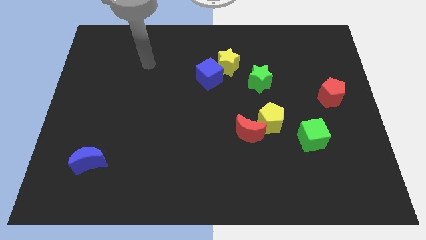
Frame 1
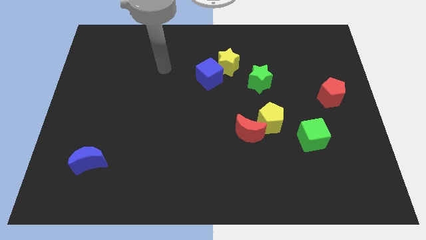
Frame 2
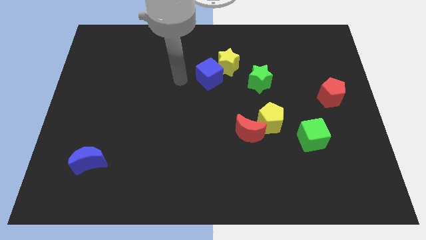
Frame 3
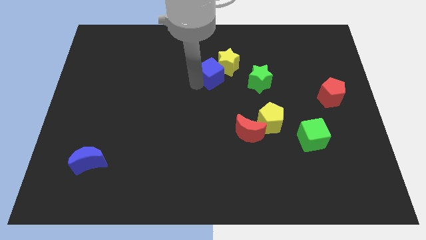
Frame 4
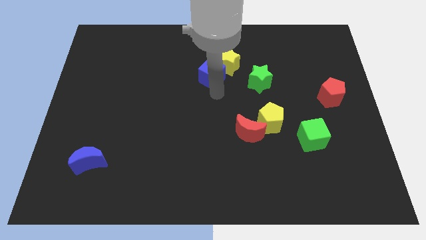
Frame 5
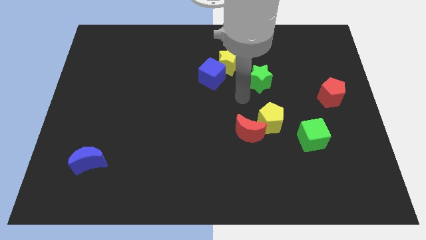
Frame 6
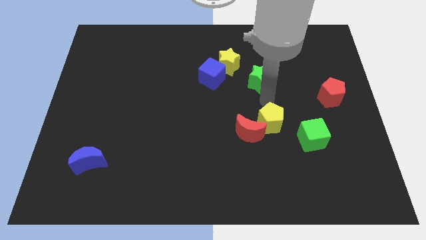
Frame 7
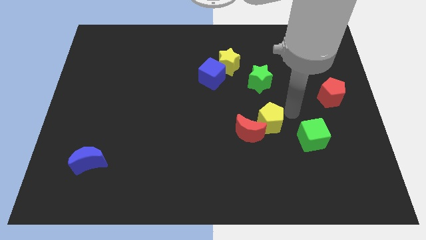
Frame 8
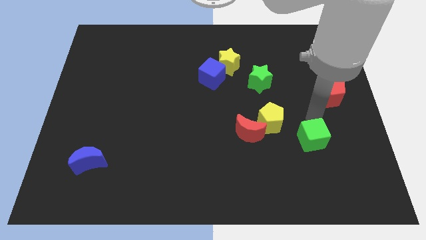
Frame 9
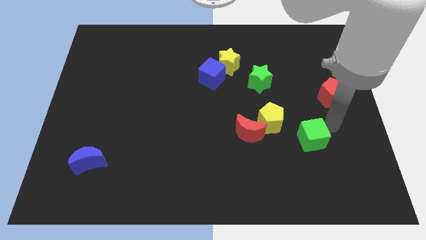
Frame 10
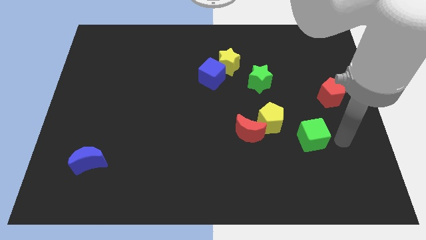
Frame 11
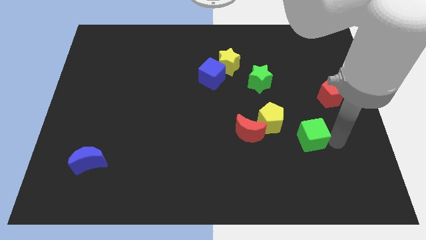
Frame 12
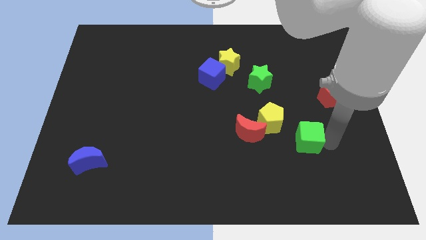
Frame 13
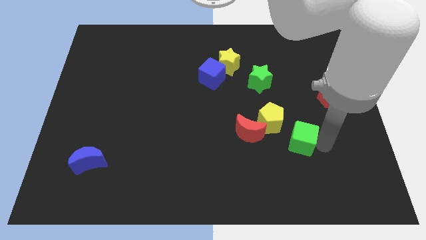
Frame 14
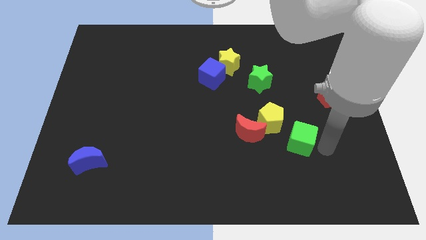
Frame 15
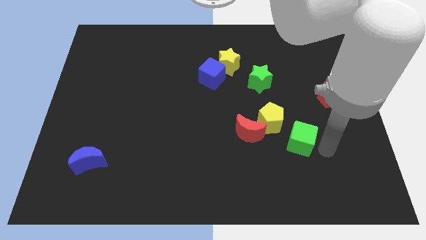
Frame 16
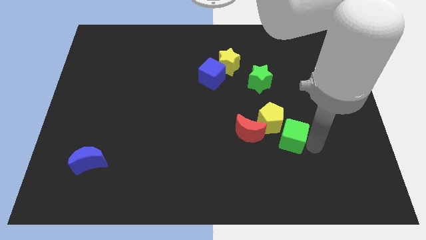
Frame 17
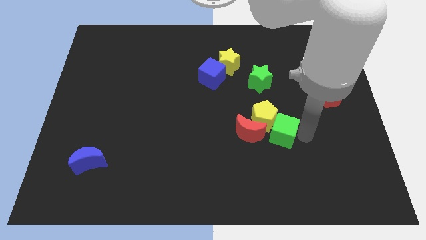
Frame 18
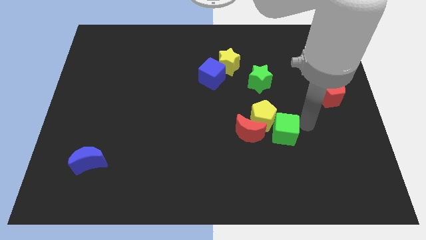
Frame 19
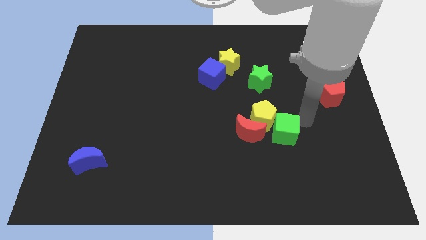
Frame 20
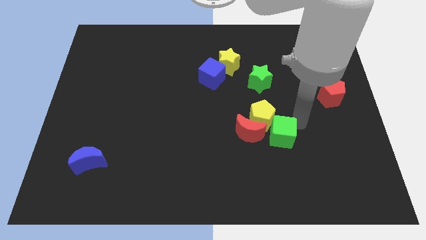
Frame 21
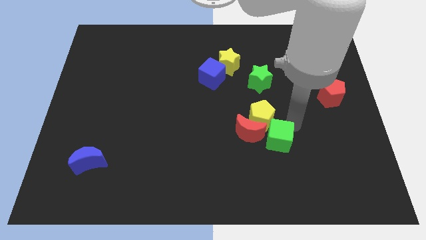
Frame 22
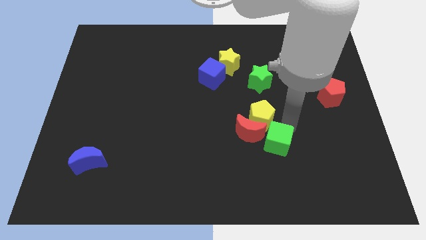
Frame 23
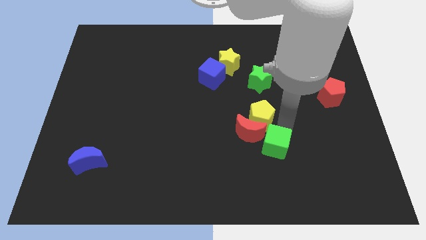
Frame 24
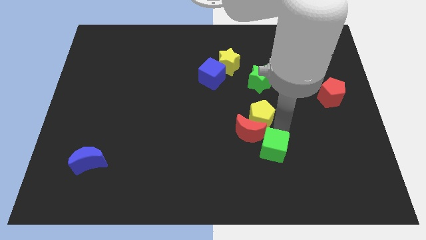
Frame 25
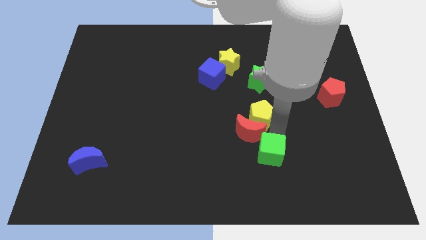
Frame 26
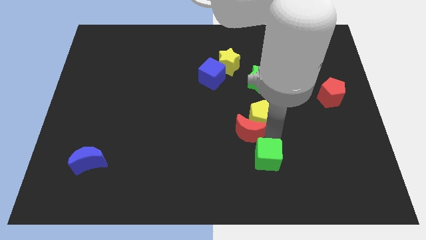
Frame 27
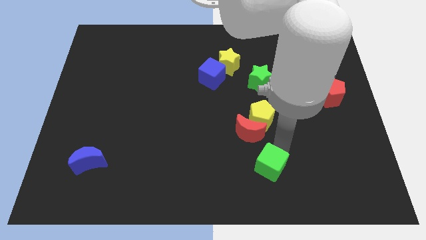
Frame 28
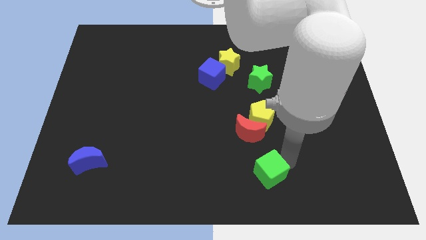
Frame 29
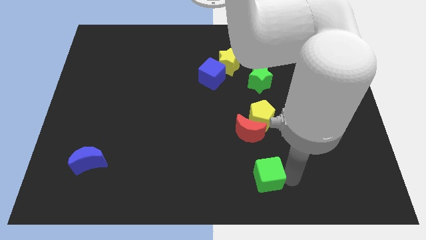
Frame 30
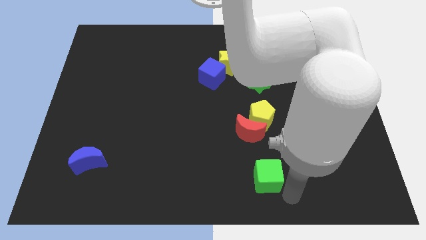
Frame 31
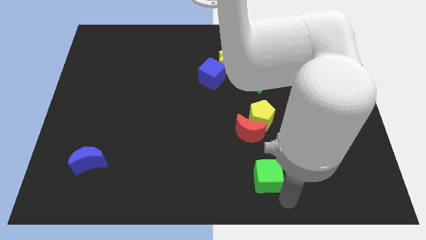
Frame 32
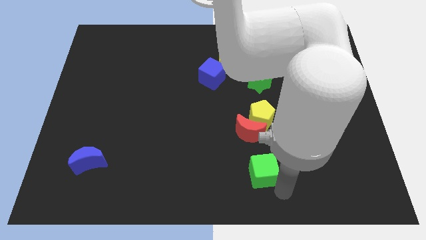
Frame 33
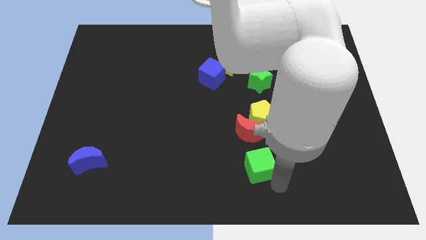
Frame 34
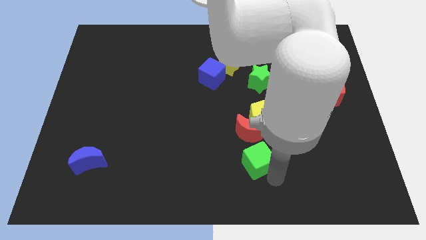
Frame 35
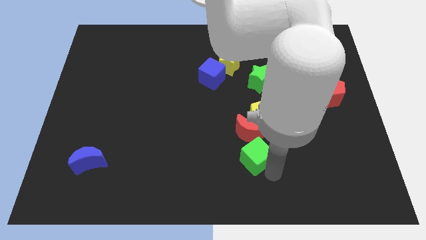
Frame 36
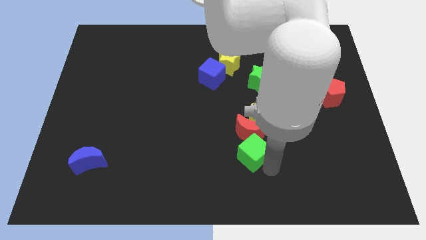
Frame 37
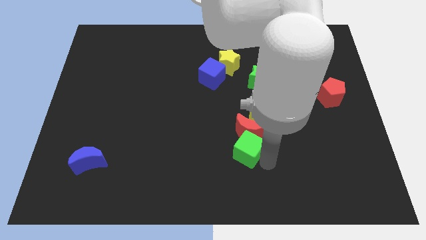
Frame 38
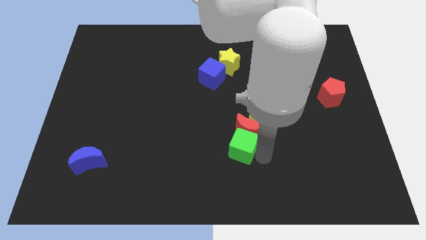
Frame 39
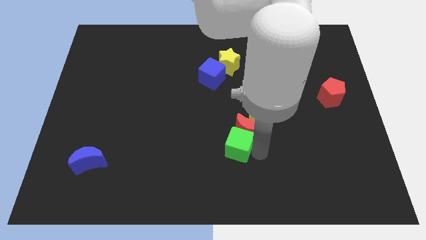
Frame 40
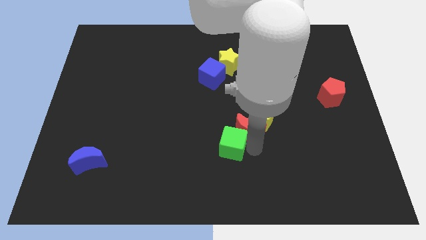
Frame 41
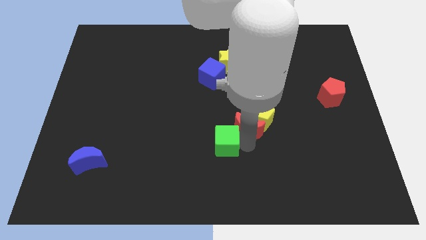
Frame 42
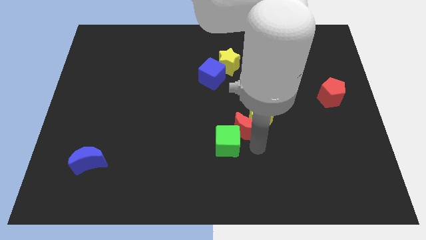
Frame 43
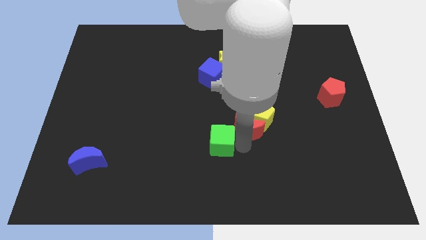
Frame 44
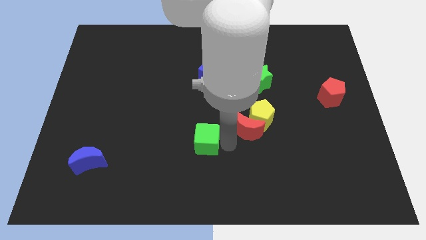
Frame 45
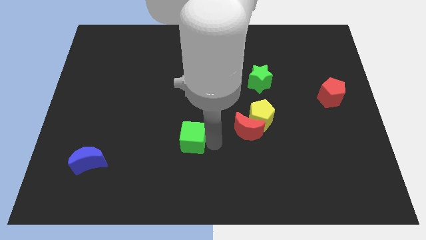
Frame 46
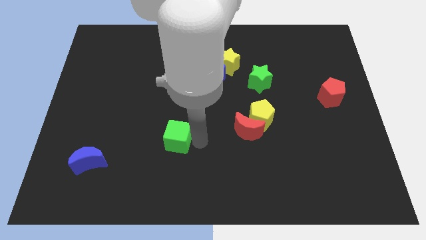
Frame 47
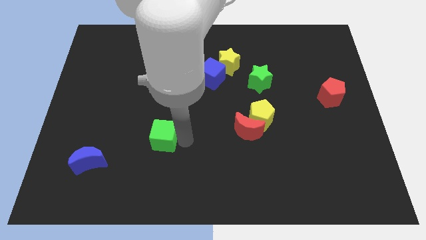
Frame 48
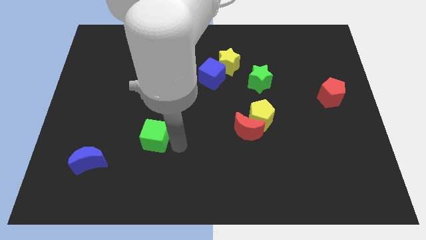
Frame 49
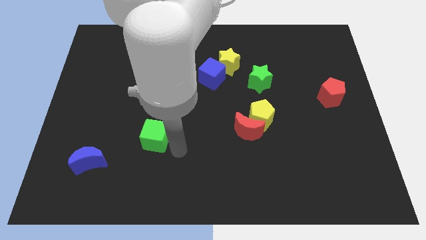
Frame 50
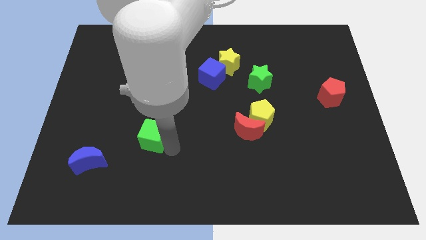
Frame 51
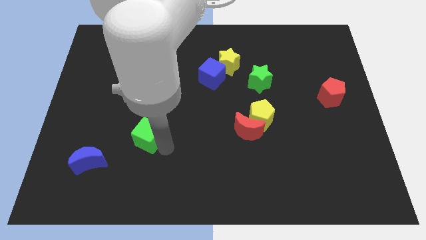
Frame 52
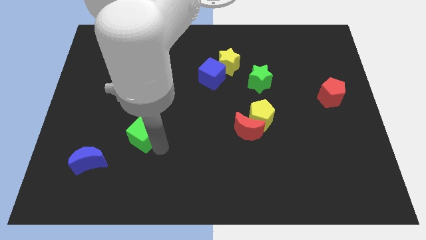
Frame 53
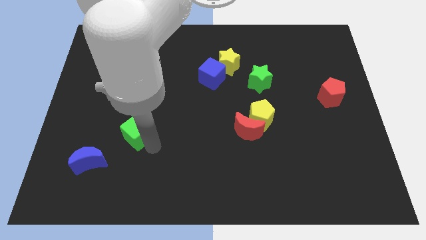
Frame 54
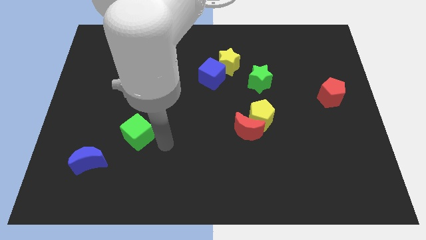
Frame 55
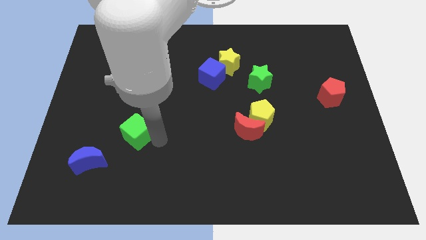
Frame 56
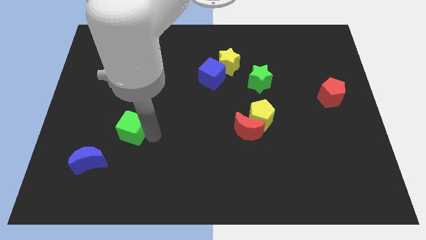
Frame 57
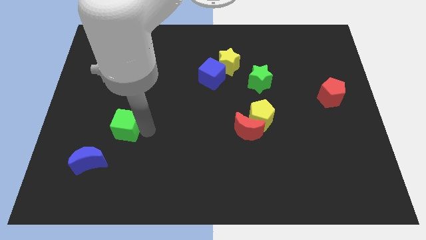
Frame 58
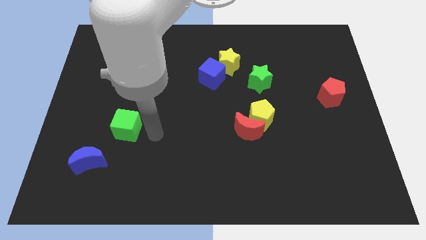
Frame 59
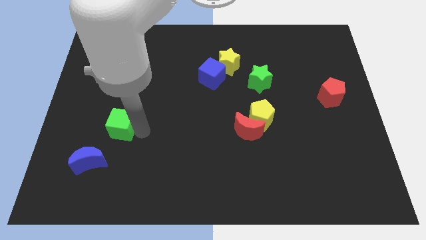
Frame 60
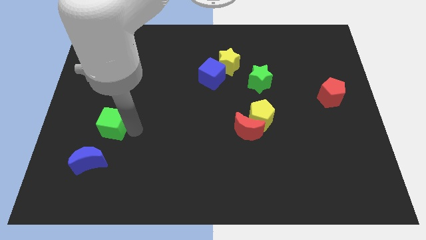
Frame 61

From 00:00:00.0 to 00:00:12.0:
push the green cube to the top of the blue moon

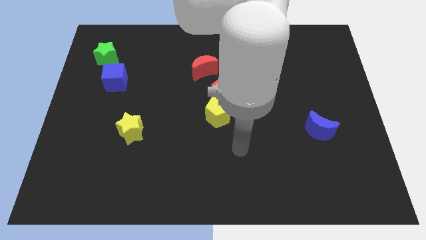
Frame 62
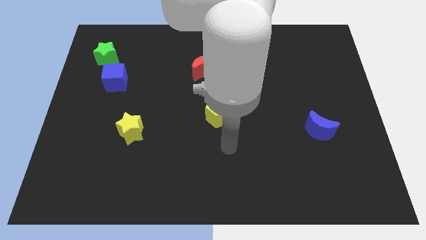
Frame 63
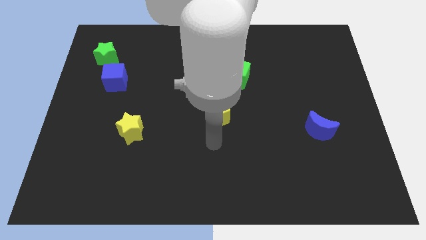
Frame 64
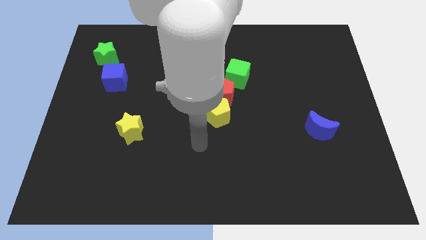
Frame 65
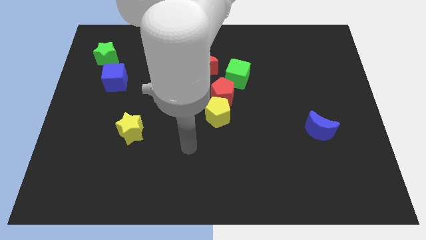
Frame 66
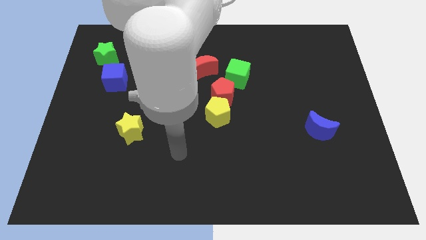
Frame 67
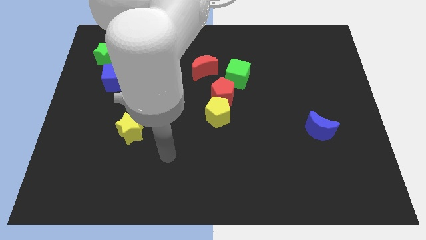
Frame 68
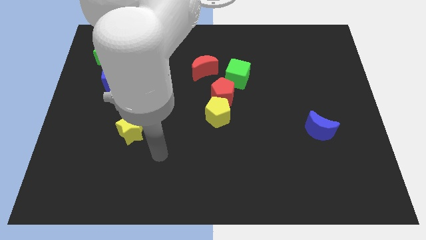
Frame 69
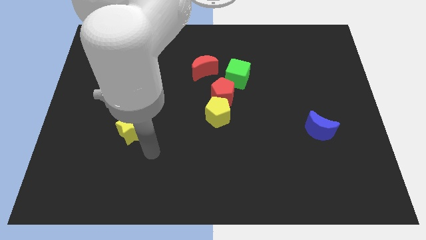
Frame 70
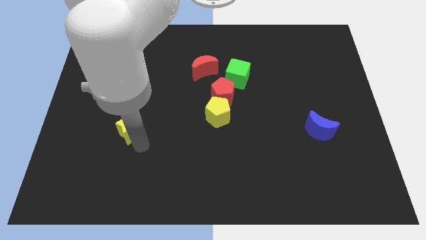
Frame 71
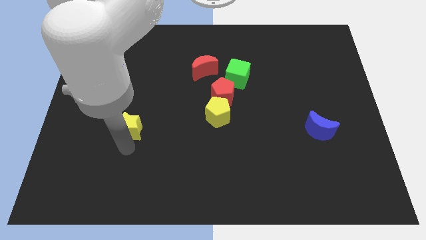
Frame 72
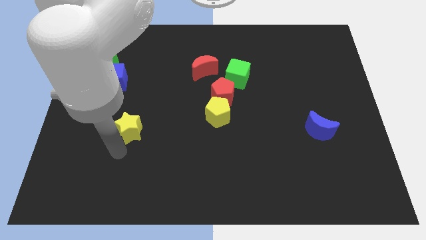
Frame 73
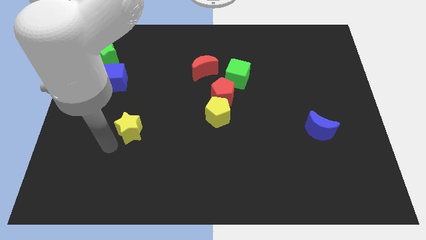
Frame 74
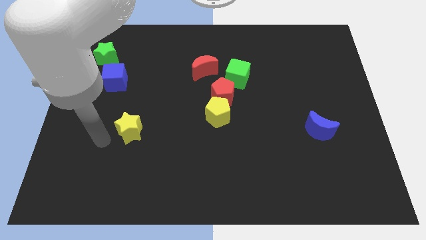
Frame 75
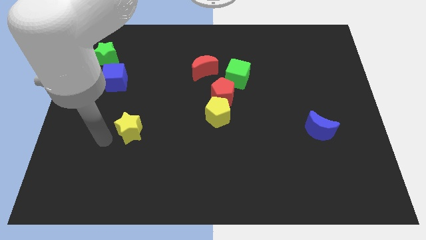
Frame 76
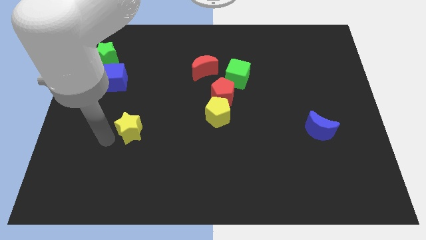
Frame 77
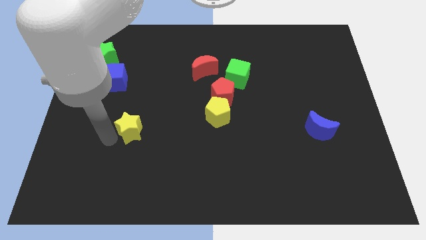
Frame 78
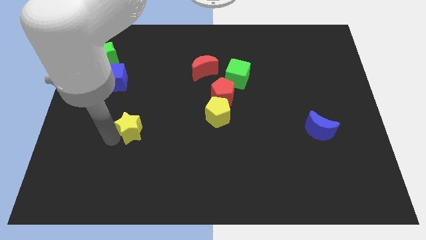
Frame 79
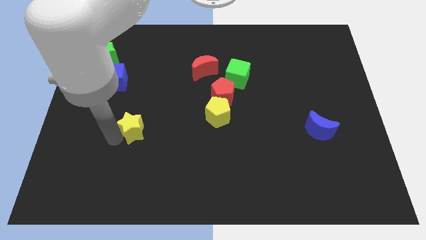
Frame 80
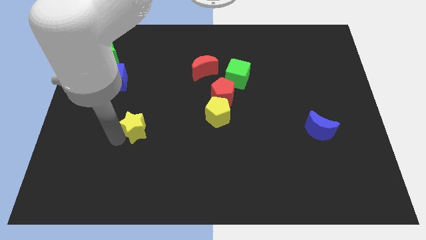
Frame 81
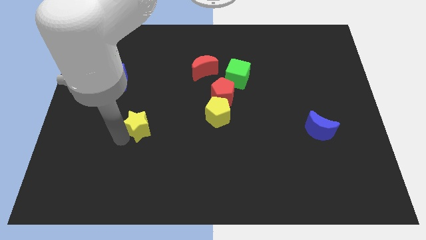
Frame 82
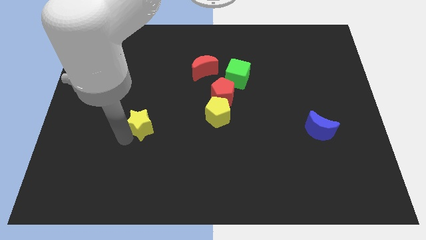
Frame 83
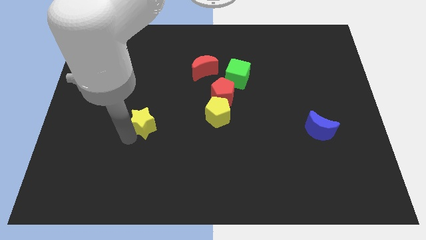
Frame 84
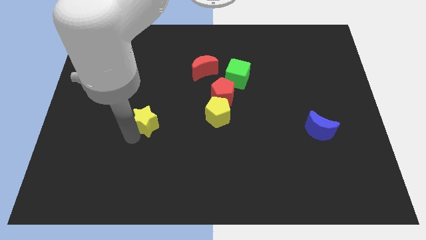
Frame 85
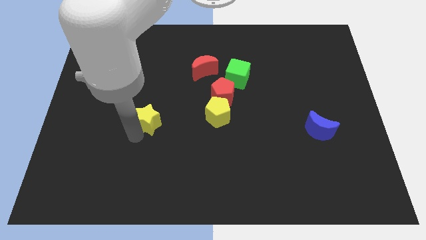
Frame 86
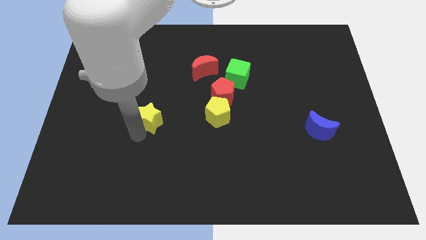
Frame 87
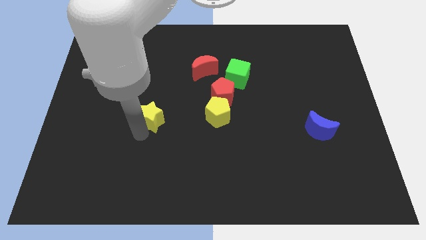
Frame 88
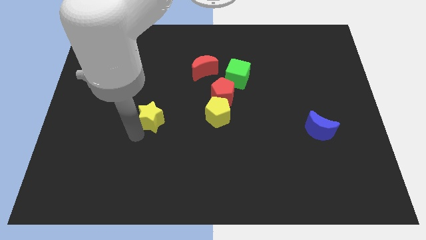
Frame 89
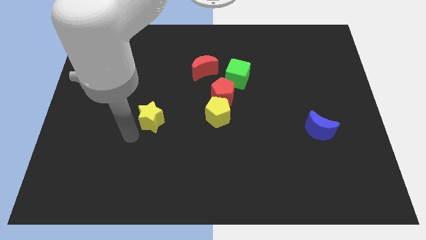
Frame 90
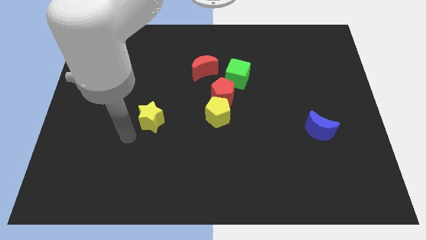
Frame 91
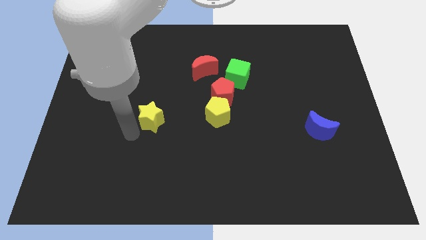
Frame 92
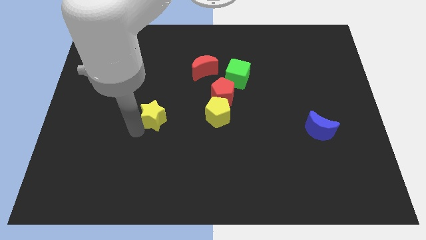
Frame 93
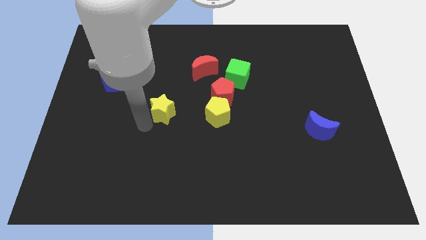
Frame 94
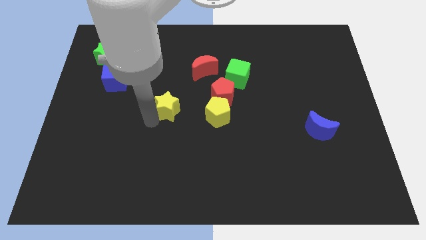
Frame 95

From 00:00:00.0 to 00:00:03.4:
push the yellow star just left of the red pentagon
